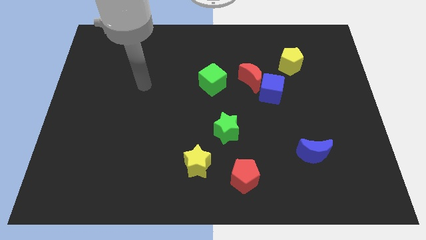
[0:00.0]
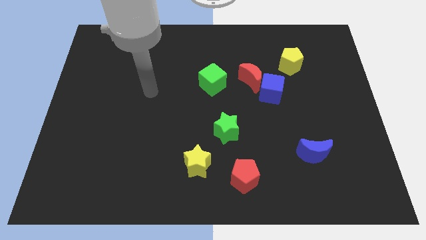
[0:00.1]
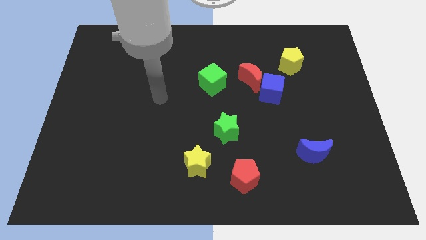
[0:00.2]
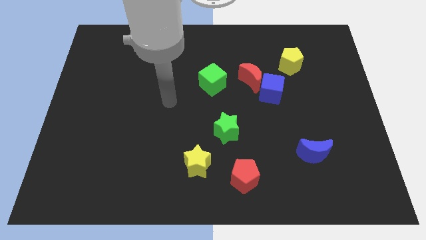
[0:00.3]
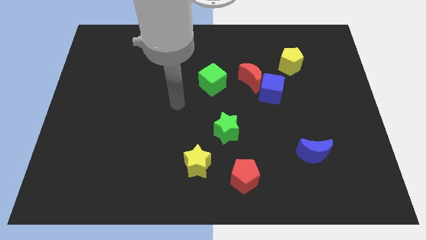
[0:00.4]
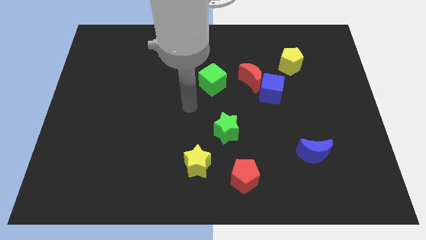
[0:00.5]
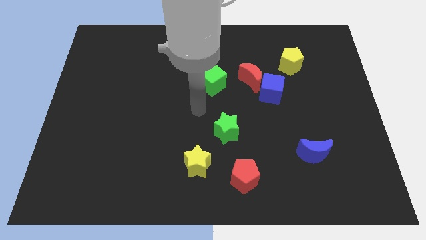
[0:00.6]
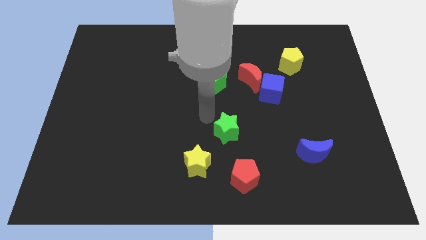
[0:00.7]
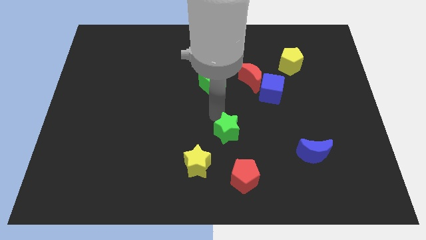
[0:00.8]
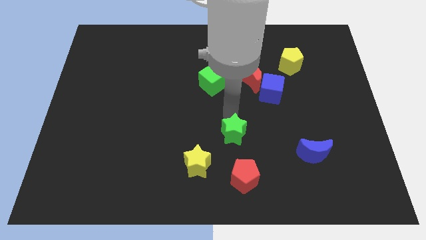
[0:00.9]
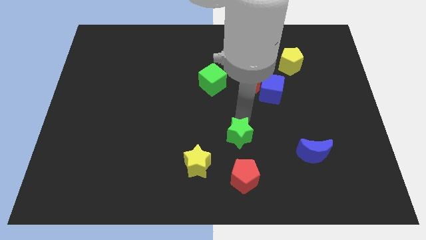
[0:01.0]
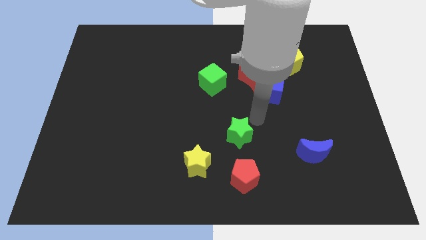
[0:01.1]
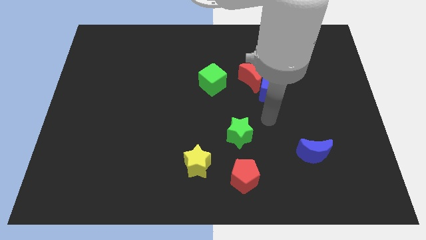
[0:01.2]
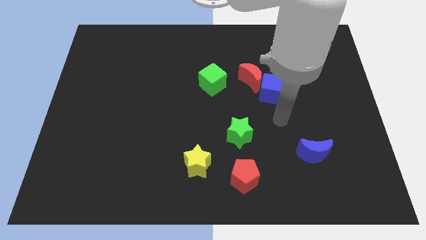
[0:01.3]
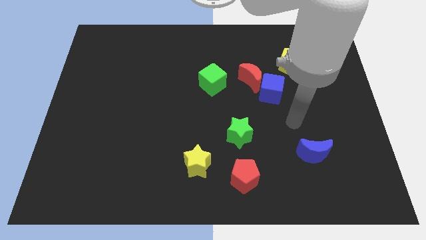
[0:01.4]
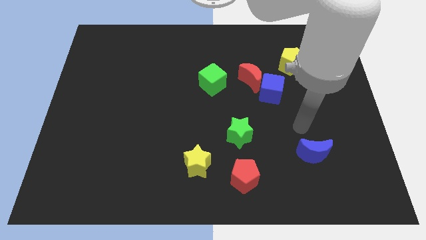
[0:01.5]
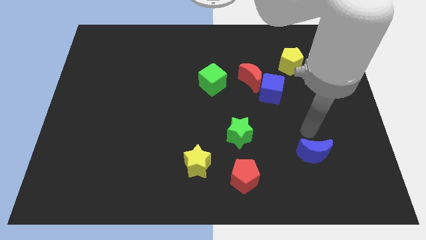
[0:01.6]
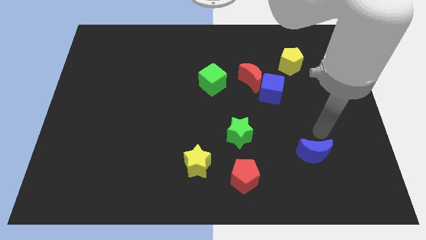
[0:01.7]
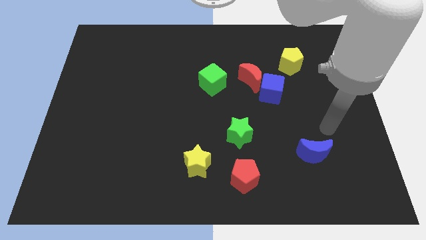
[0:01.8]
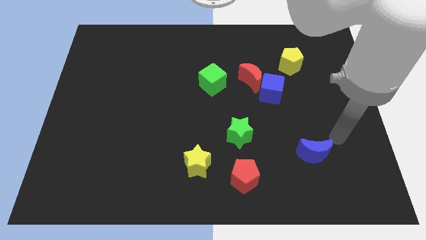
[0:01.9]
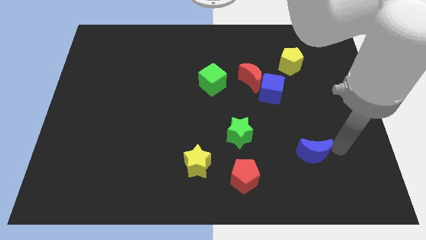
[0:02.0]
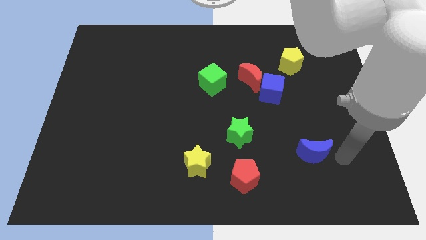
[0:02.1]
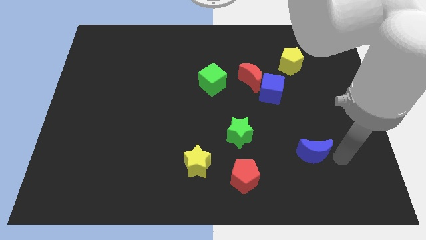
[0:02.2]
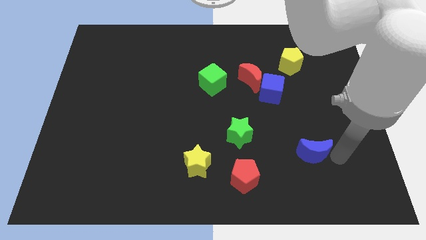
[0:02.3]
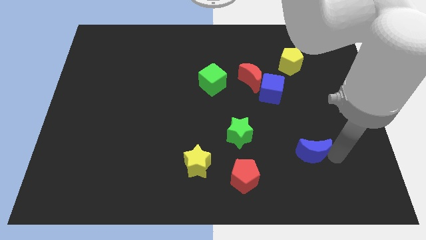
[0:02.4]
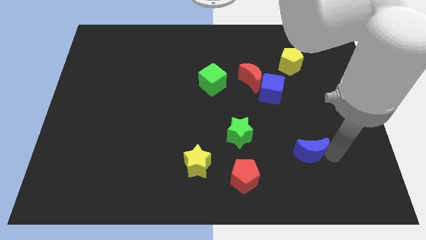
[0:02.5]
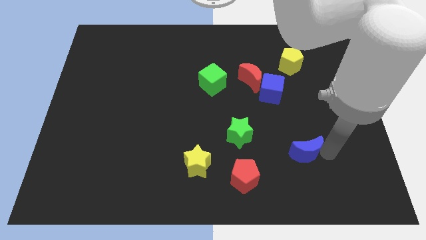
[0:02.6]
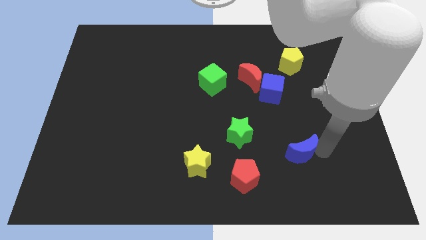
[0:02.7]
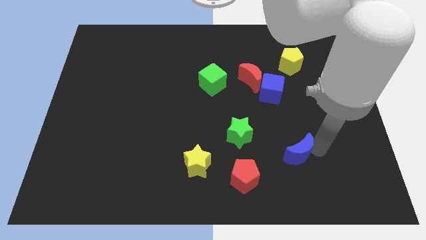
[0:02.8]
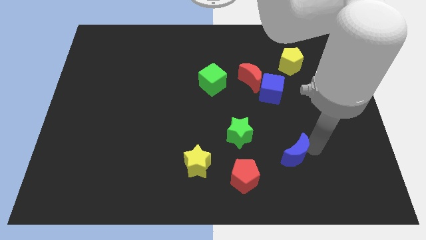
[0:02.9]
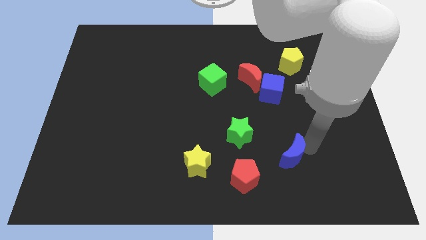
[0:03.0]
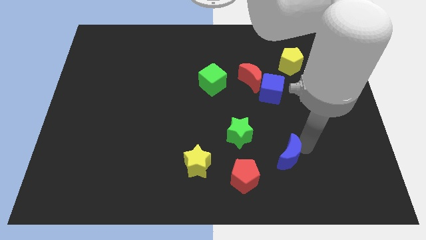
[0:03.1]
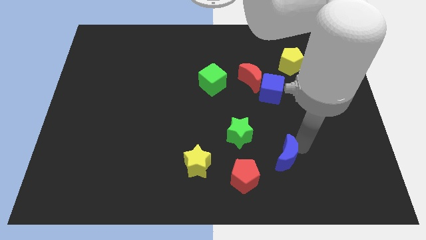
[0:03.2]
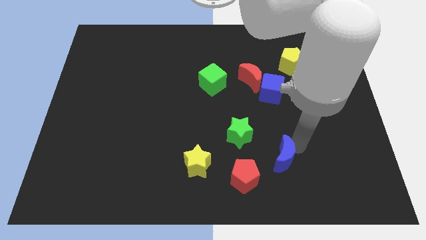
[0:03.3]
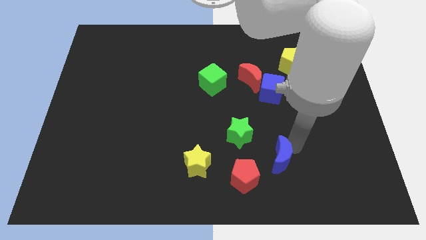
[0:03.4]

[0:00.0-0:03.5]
move the blue moon somewhat left

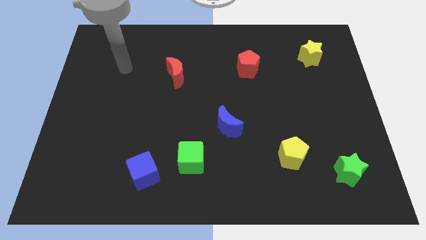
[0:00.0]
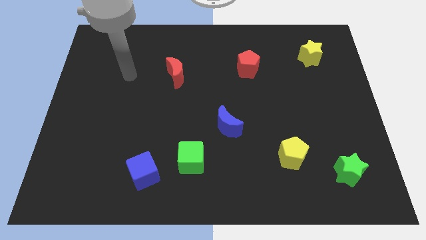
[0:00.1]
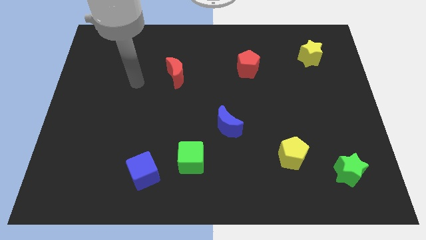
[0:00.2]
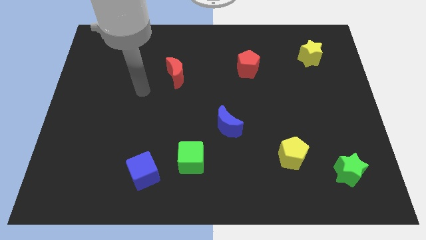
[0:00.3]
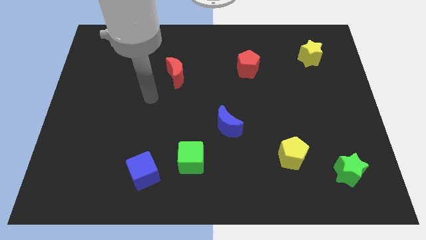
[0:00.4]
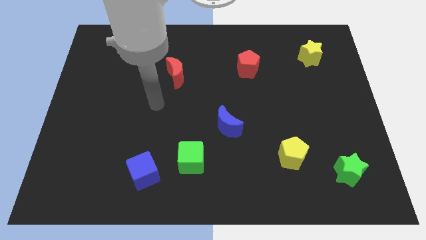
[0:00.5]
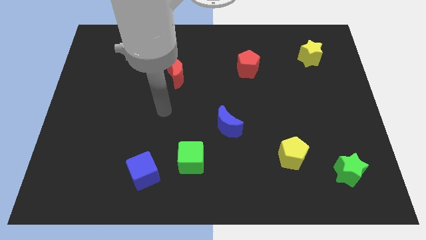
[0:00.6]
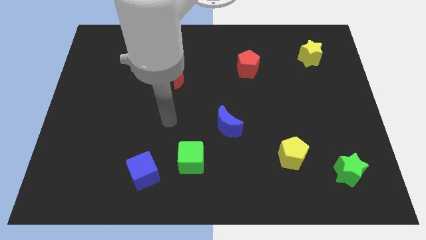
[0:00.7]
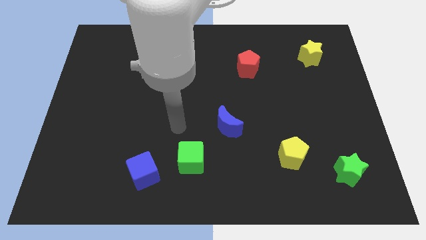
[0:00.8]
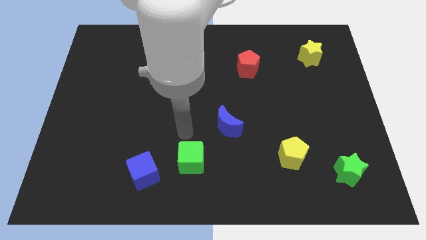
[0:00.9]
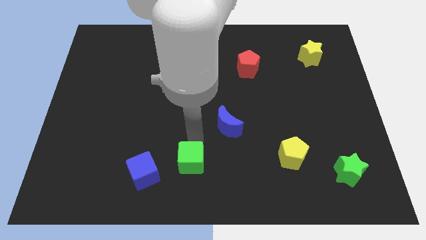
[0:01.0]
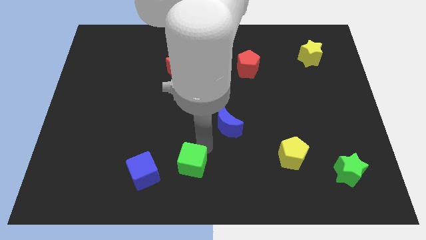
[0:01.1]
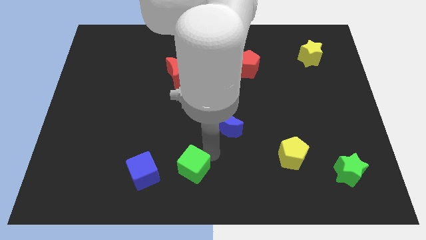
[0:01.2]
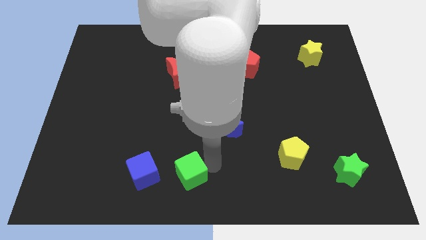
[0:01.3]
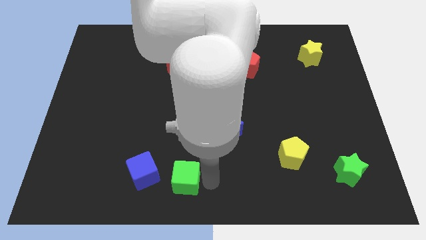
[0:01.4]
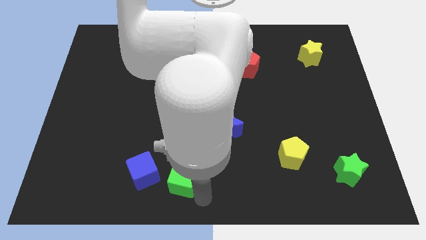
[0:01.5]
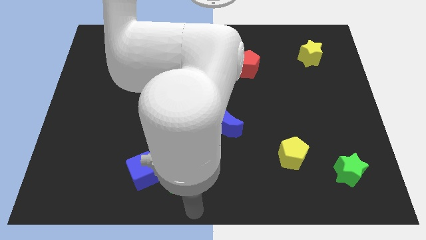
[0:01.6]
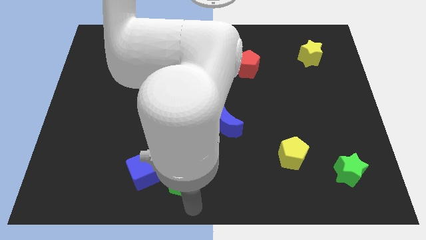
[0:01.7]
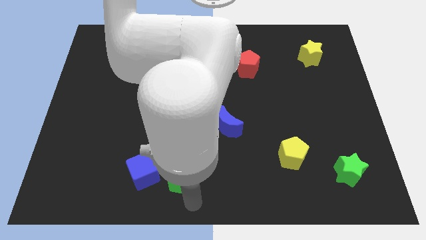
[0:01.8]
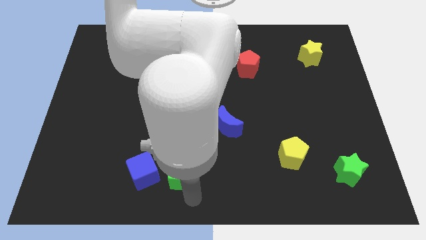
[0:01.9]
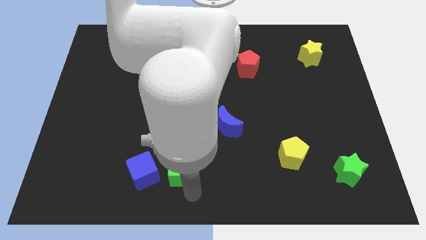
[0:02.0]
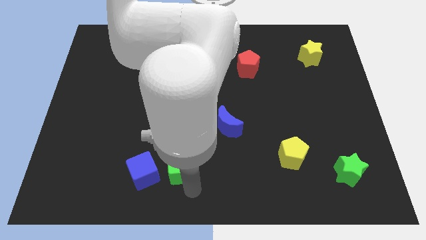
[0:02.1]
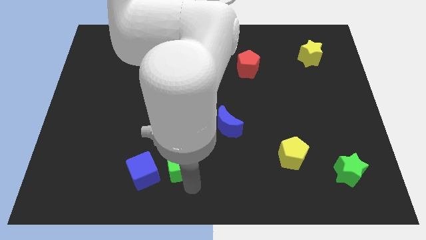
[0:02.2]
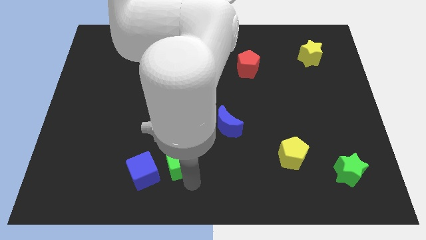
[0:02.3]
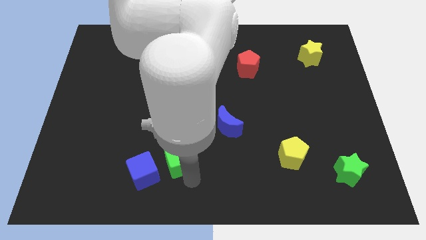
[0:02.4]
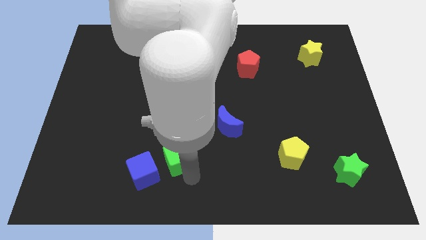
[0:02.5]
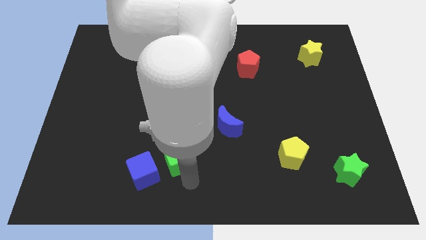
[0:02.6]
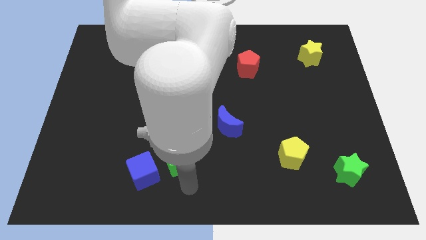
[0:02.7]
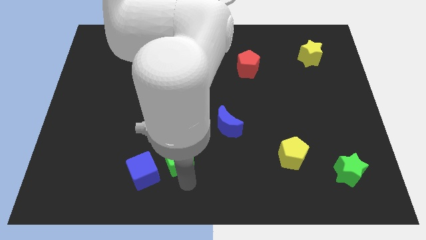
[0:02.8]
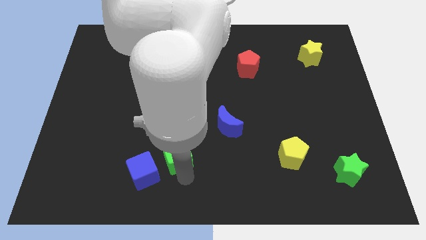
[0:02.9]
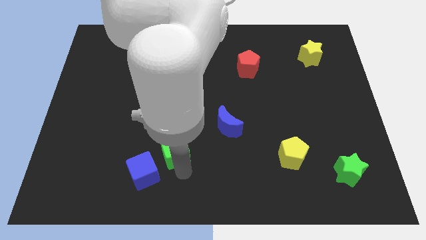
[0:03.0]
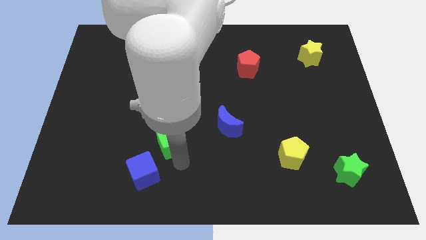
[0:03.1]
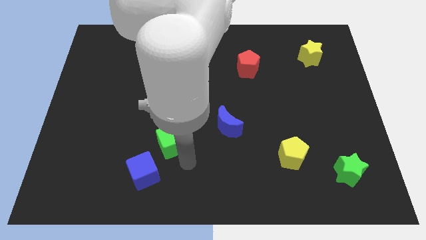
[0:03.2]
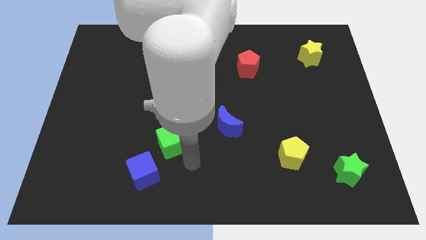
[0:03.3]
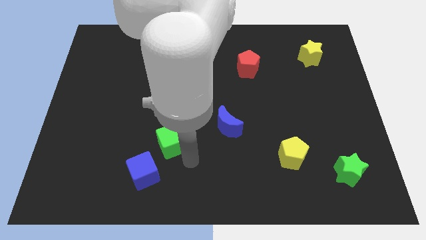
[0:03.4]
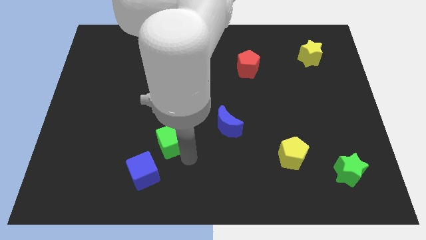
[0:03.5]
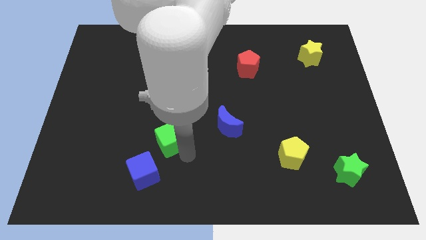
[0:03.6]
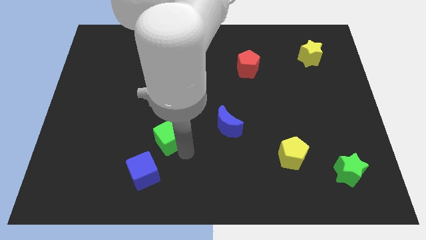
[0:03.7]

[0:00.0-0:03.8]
slightly move the green cube upwards and left diagonally

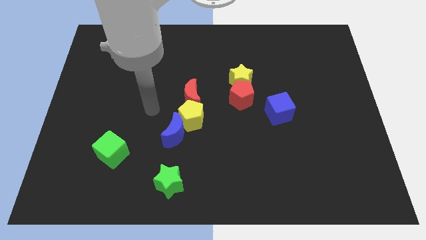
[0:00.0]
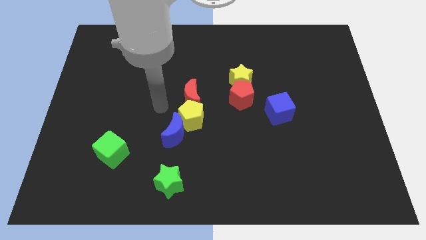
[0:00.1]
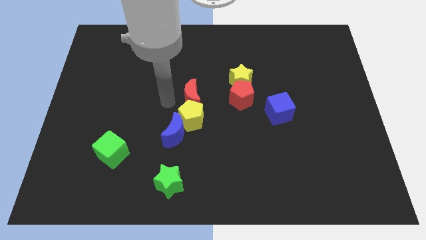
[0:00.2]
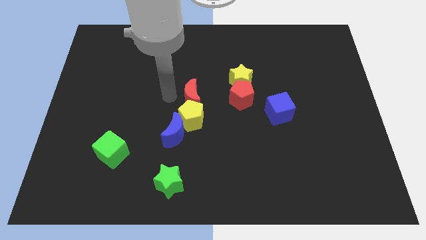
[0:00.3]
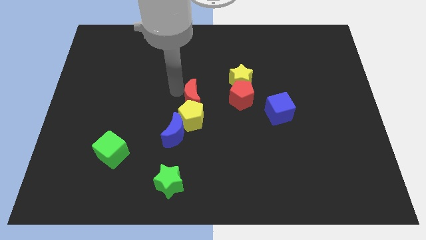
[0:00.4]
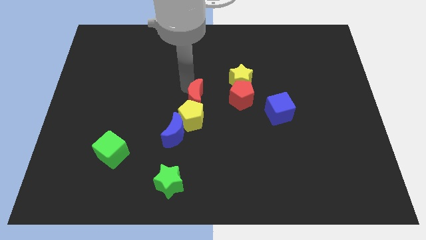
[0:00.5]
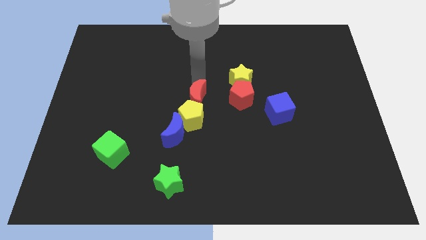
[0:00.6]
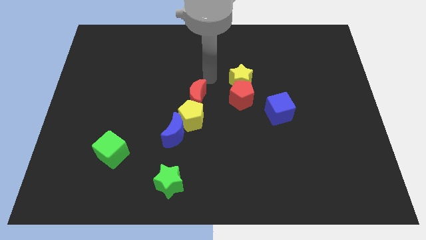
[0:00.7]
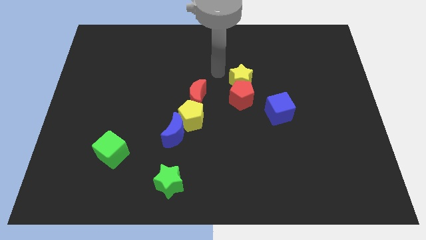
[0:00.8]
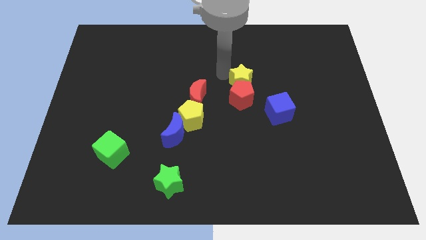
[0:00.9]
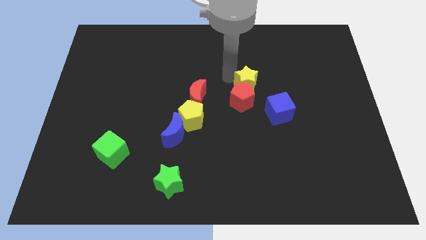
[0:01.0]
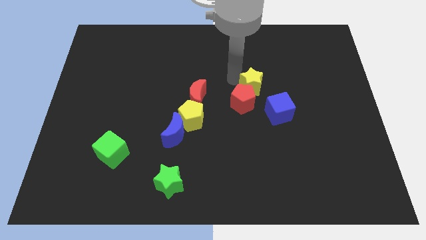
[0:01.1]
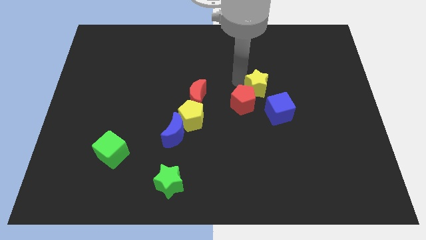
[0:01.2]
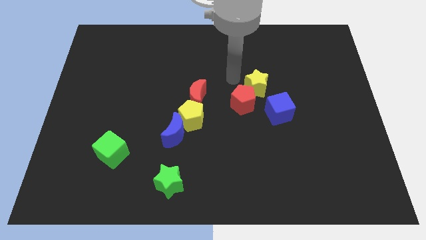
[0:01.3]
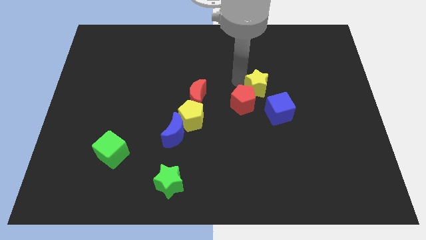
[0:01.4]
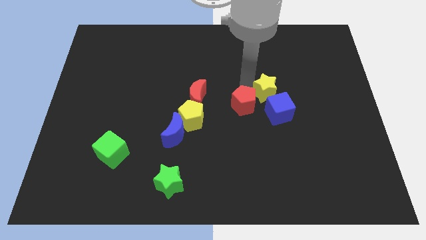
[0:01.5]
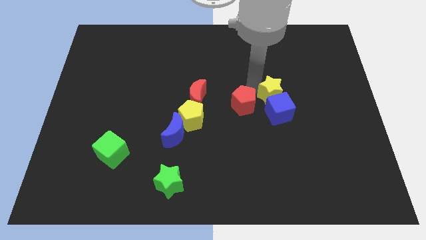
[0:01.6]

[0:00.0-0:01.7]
slightly move the yellow star downwards and to the right diagonally
